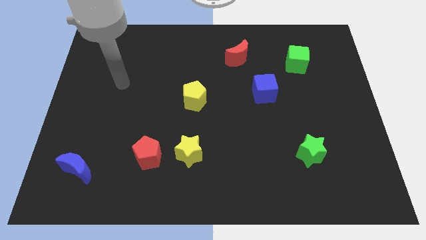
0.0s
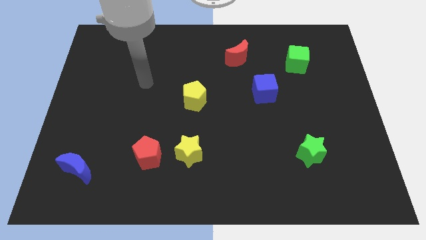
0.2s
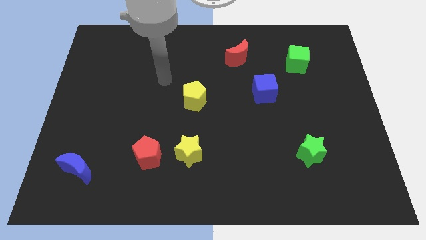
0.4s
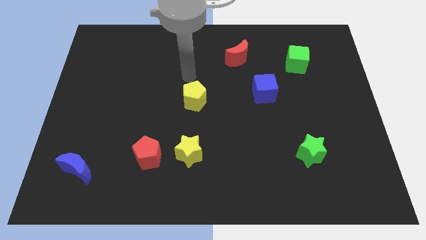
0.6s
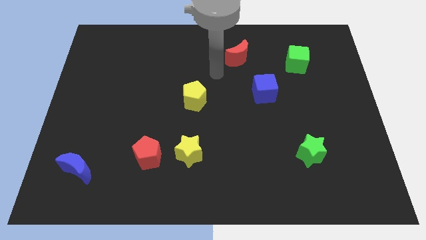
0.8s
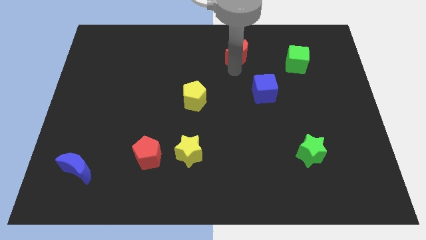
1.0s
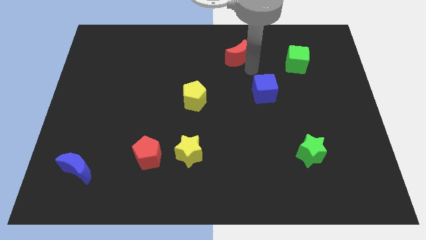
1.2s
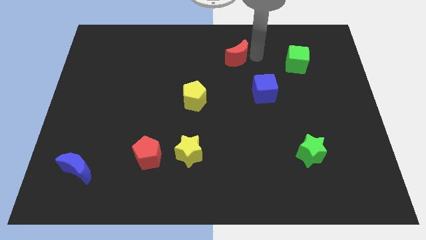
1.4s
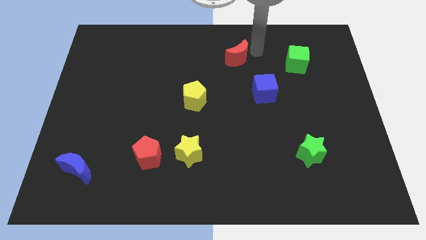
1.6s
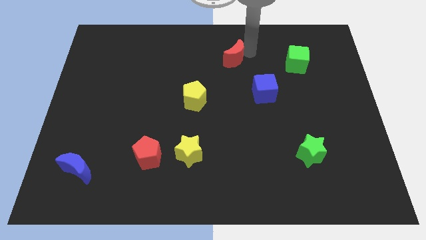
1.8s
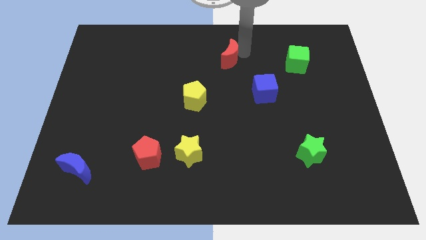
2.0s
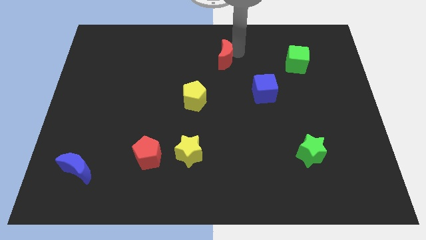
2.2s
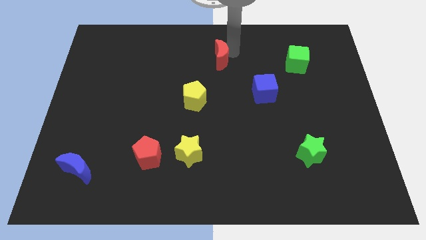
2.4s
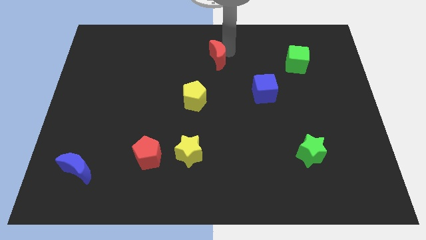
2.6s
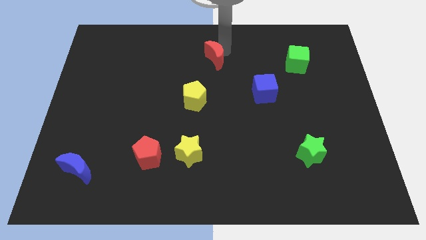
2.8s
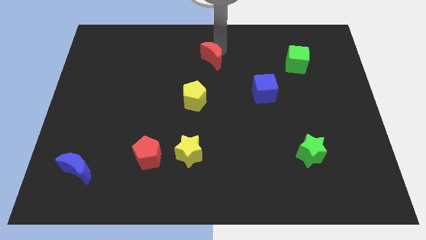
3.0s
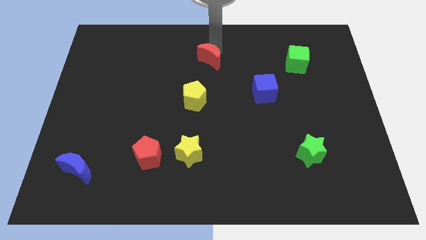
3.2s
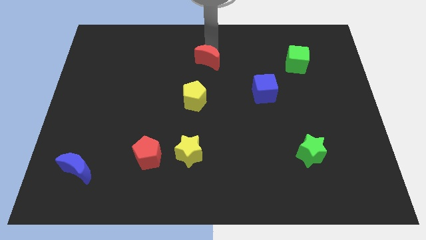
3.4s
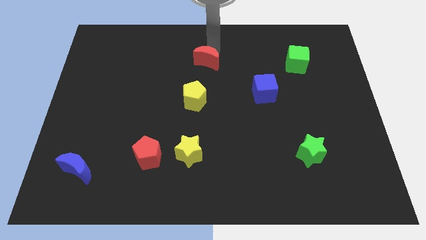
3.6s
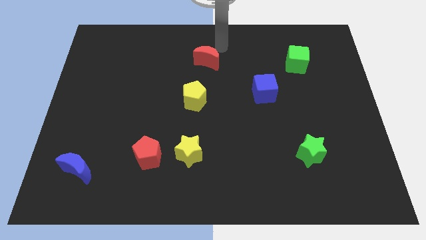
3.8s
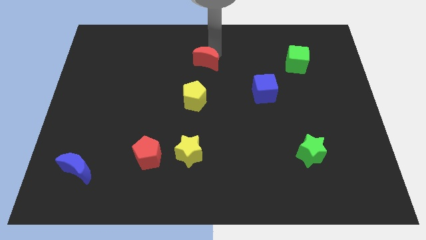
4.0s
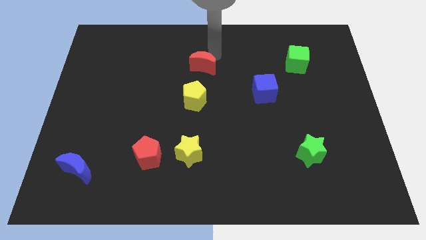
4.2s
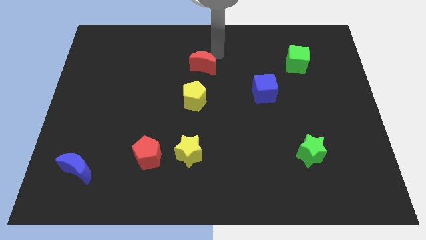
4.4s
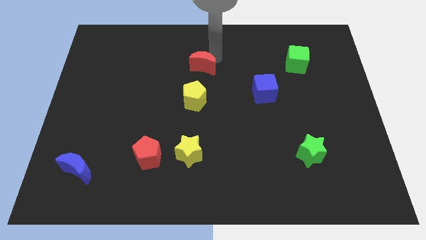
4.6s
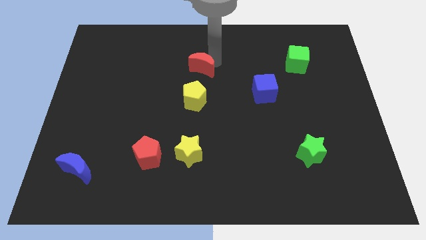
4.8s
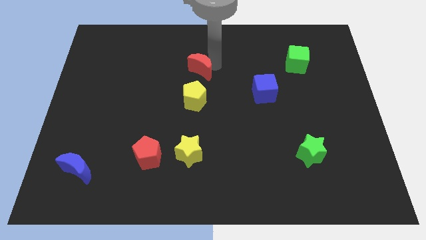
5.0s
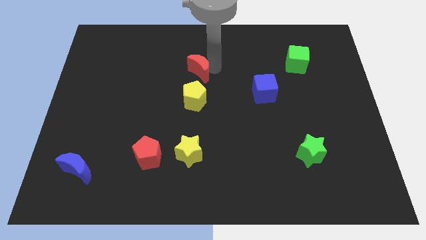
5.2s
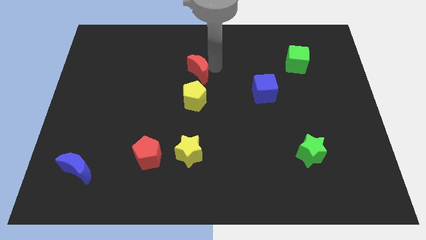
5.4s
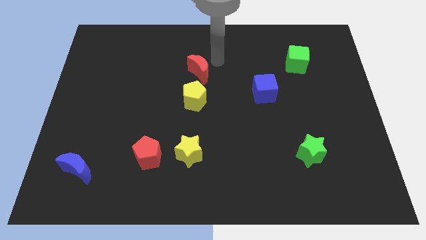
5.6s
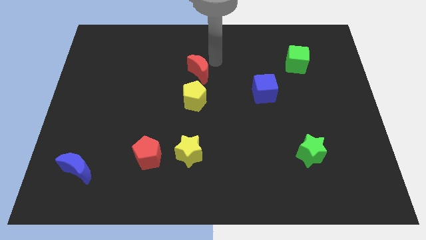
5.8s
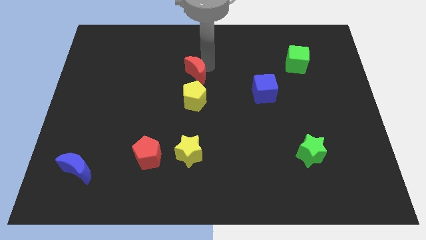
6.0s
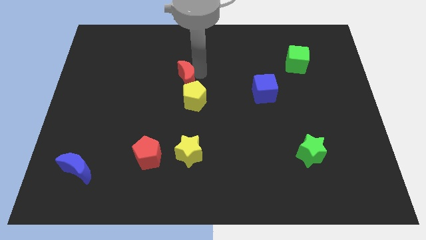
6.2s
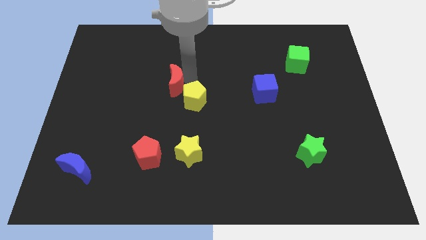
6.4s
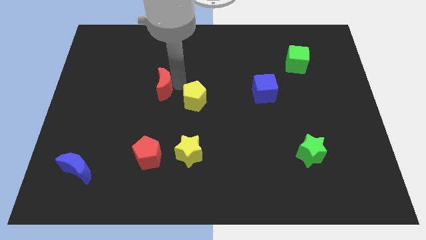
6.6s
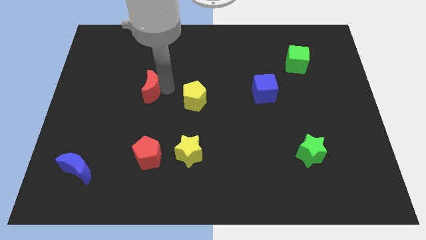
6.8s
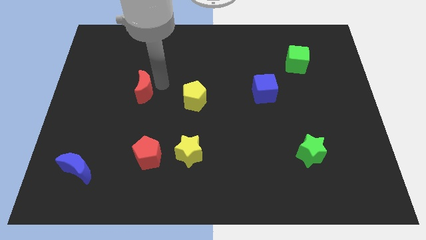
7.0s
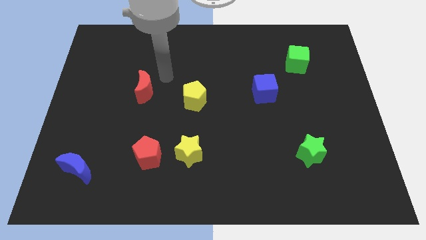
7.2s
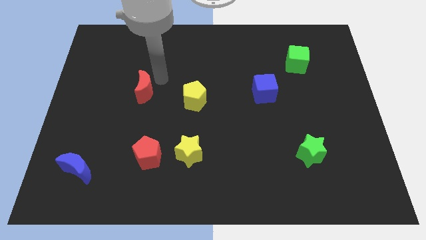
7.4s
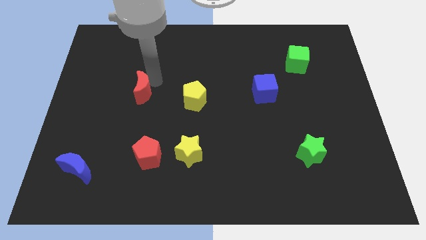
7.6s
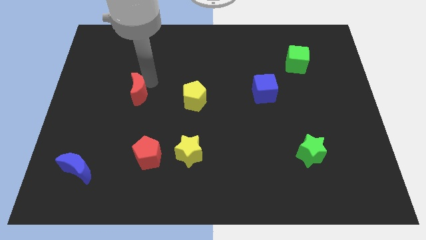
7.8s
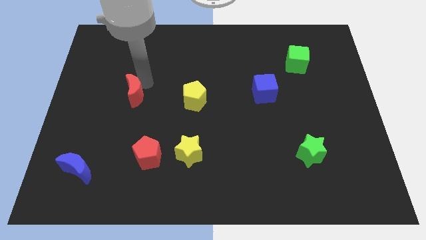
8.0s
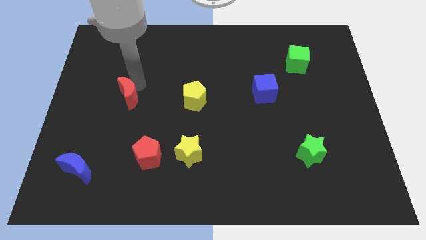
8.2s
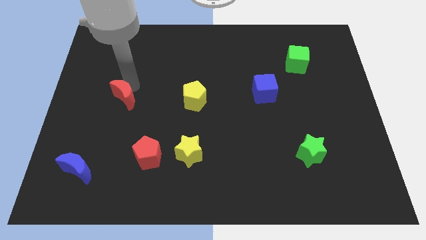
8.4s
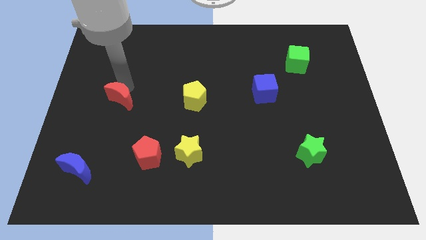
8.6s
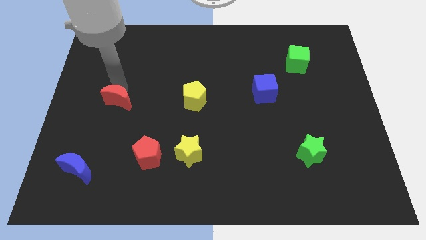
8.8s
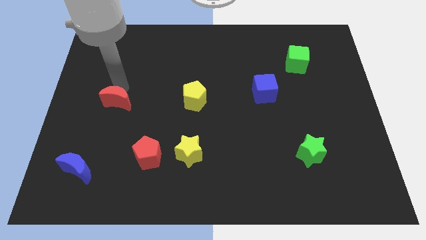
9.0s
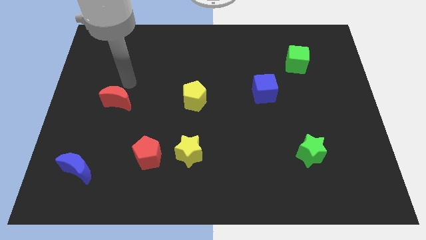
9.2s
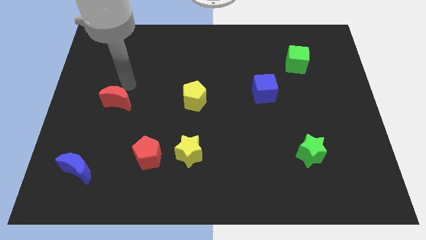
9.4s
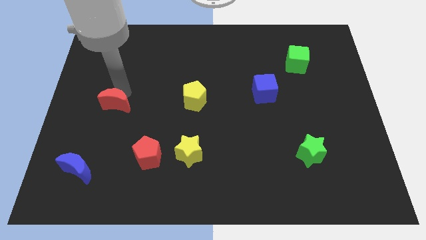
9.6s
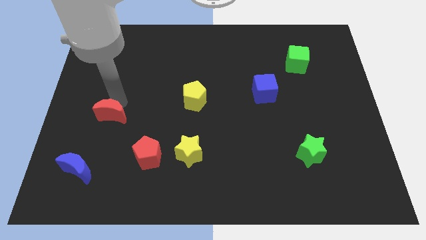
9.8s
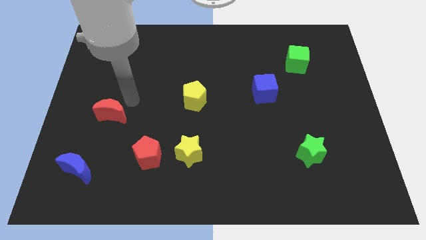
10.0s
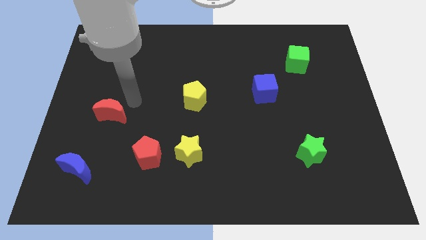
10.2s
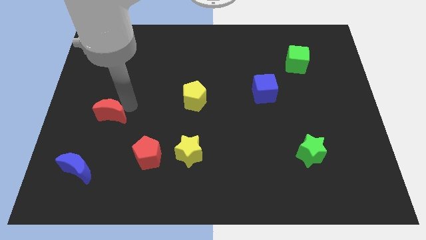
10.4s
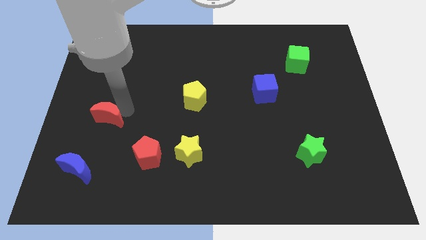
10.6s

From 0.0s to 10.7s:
put the red moon above the blue moon

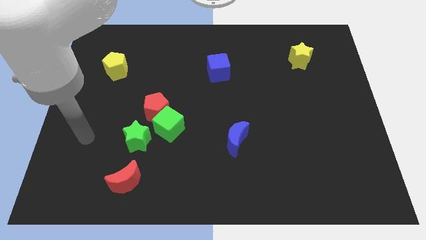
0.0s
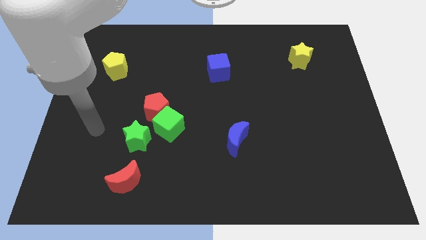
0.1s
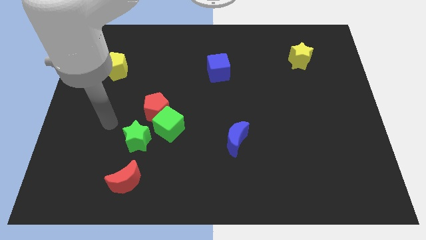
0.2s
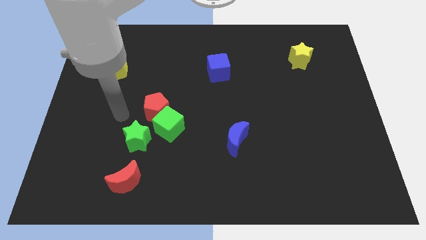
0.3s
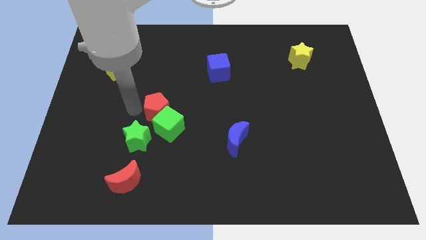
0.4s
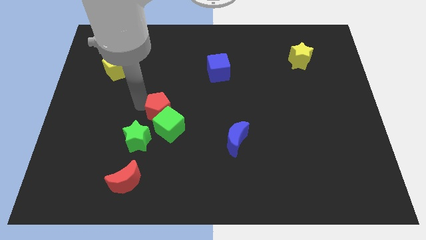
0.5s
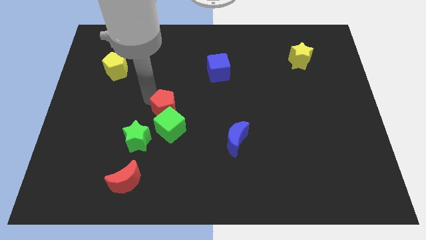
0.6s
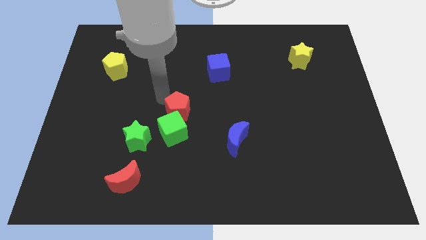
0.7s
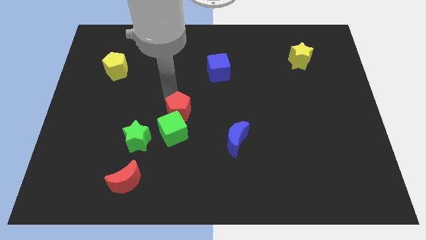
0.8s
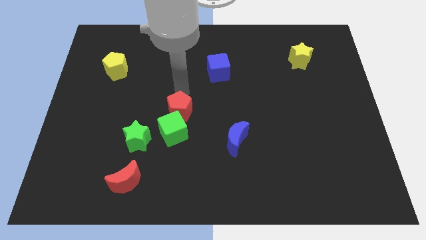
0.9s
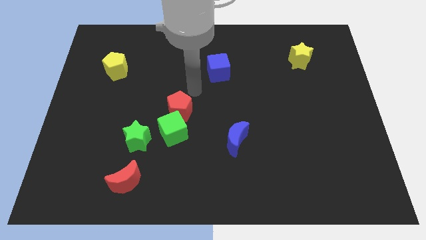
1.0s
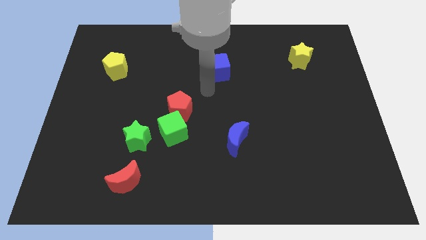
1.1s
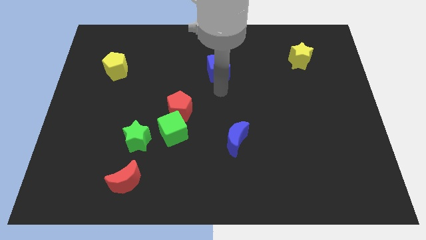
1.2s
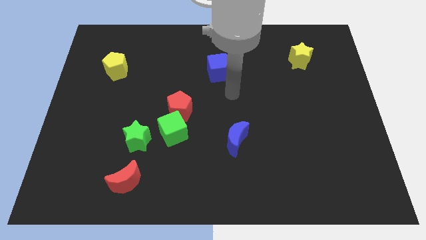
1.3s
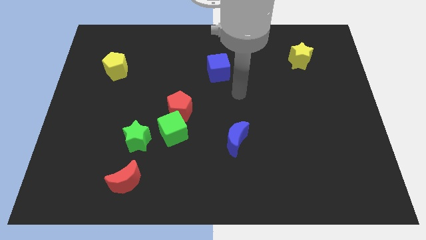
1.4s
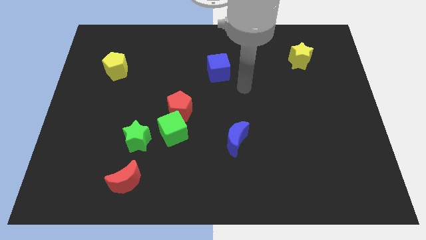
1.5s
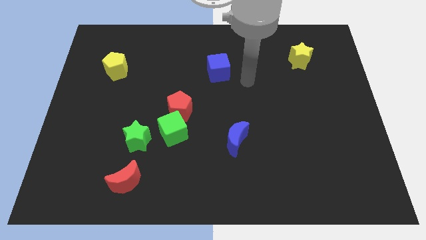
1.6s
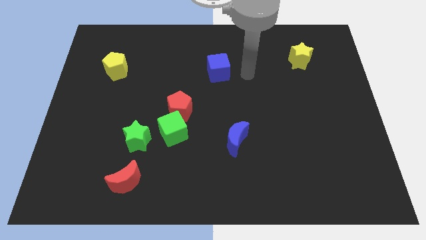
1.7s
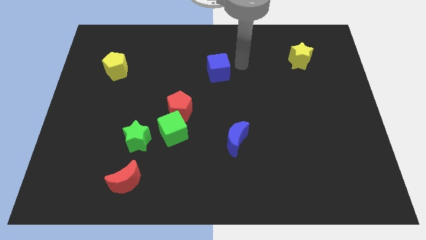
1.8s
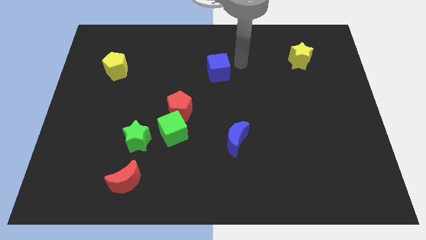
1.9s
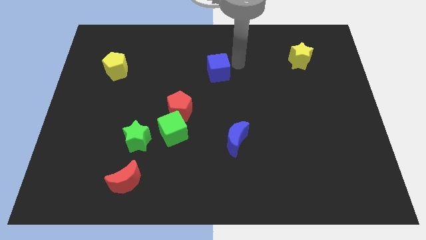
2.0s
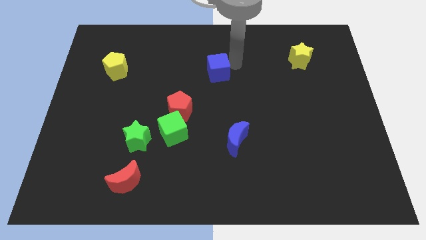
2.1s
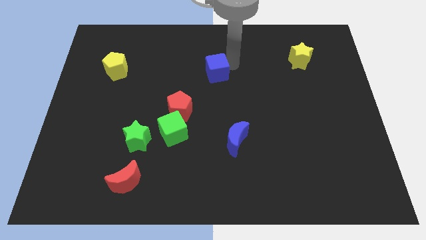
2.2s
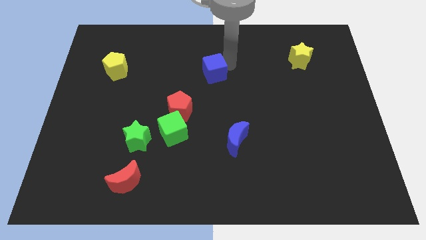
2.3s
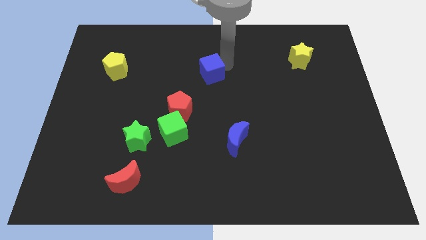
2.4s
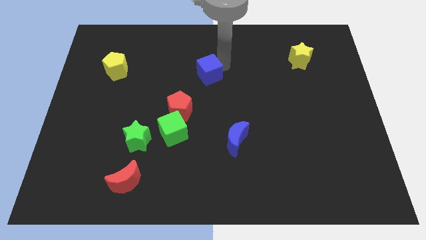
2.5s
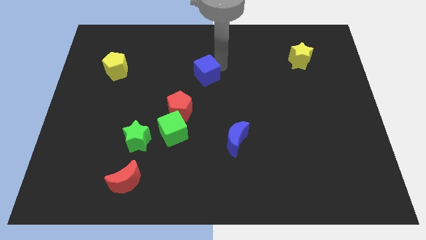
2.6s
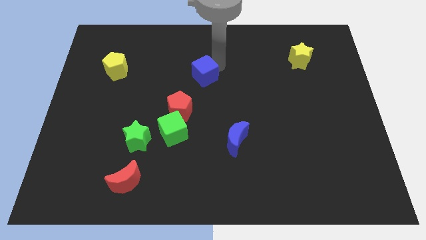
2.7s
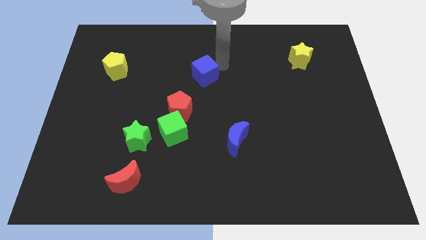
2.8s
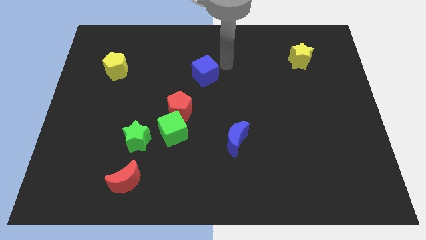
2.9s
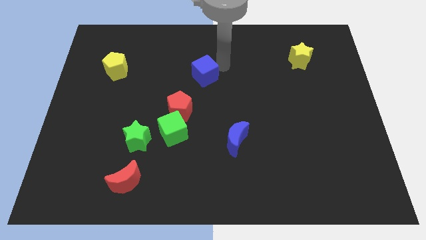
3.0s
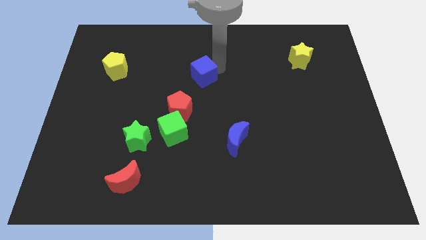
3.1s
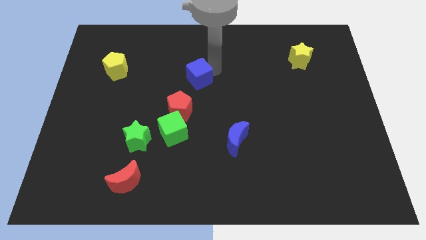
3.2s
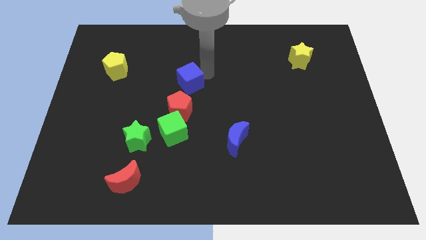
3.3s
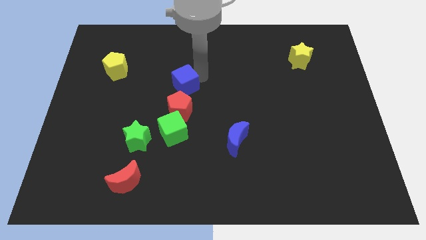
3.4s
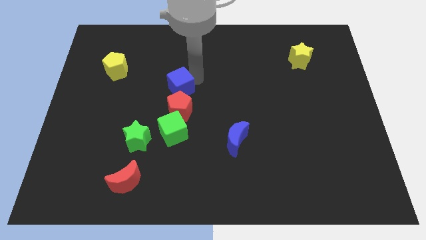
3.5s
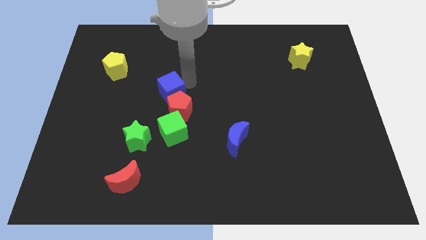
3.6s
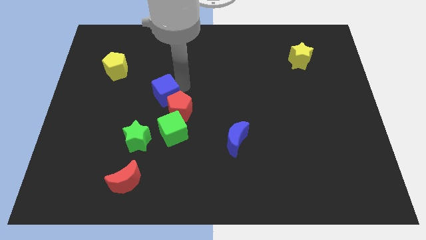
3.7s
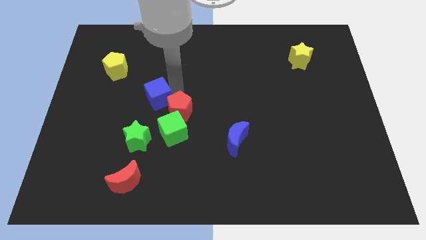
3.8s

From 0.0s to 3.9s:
push the blue cube above the green star
